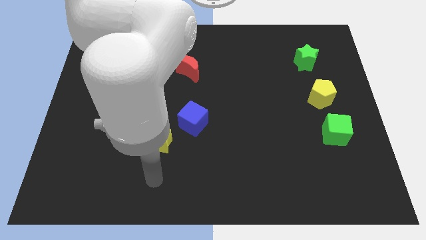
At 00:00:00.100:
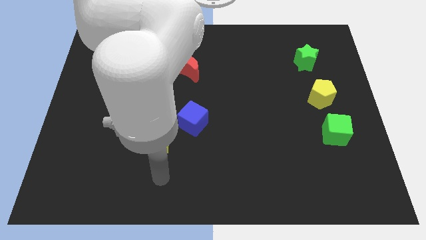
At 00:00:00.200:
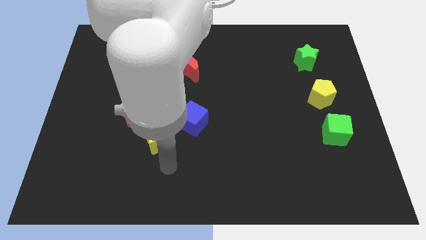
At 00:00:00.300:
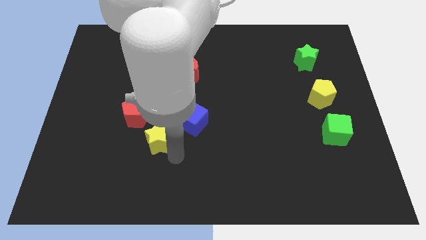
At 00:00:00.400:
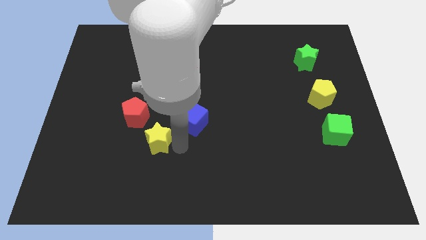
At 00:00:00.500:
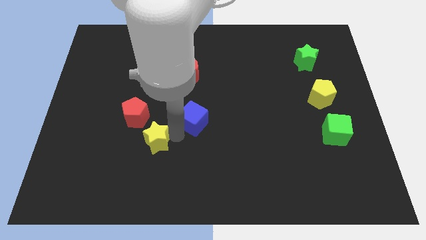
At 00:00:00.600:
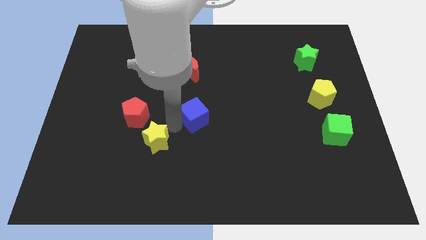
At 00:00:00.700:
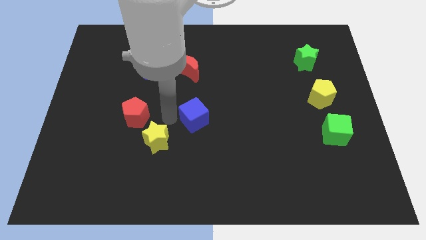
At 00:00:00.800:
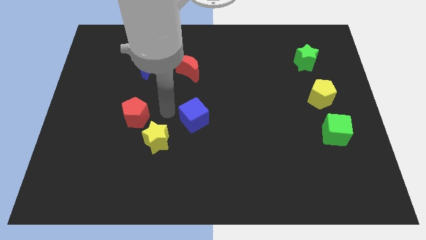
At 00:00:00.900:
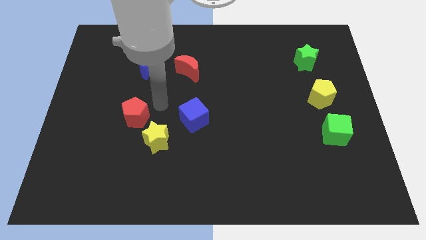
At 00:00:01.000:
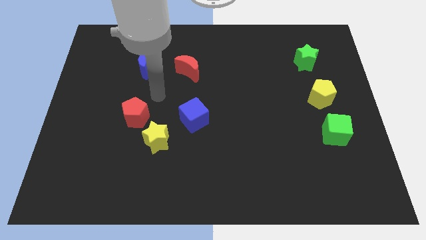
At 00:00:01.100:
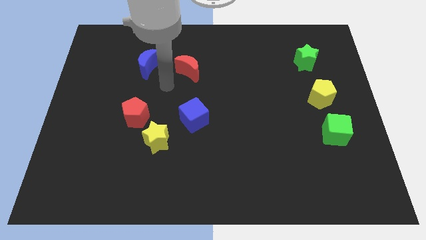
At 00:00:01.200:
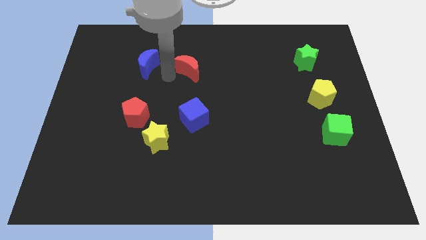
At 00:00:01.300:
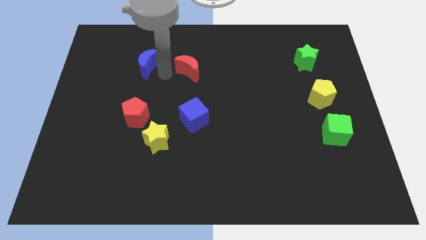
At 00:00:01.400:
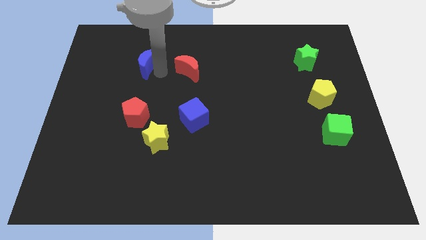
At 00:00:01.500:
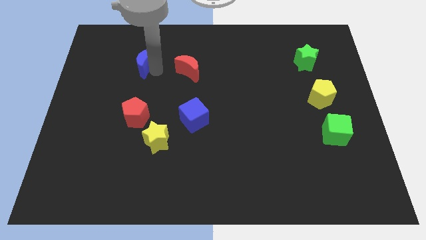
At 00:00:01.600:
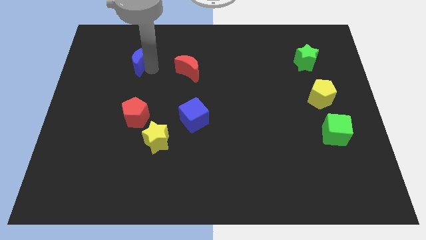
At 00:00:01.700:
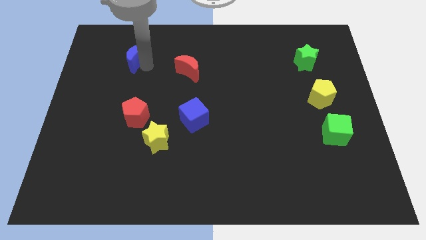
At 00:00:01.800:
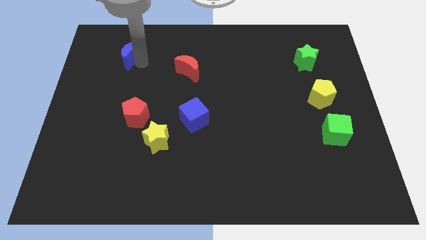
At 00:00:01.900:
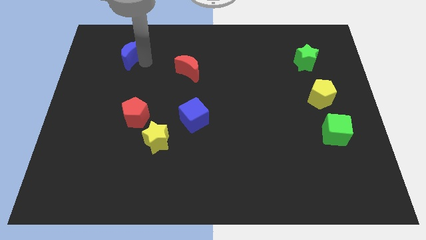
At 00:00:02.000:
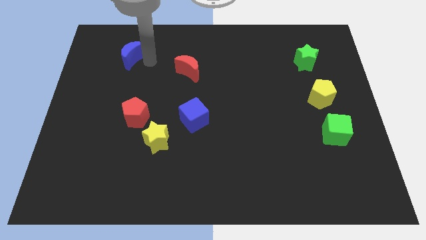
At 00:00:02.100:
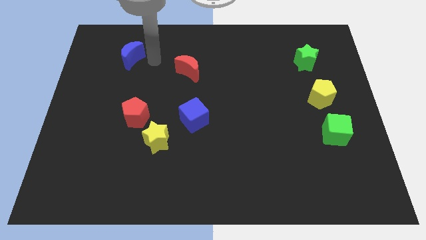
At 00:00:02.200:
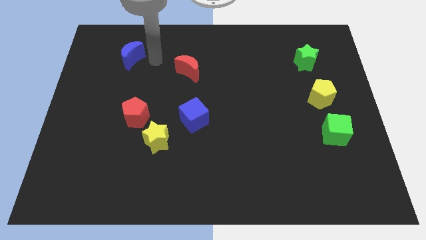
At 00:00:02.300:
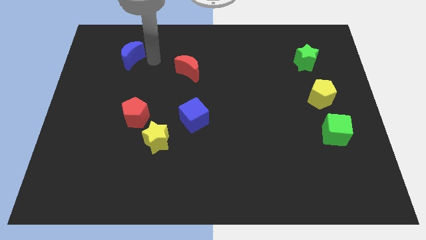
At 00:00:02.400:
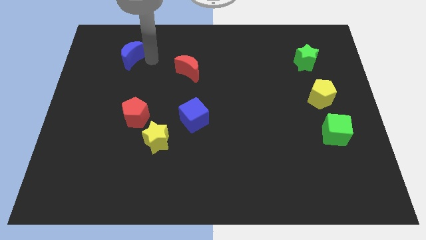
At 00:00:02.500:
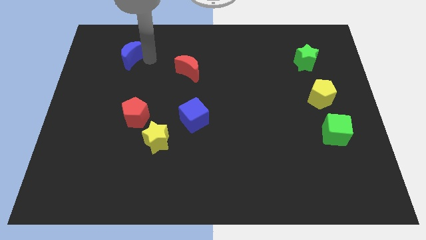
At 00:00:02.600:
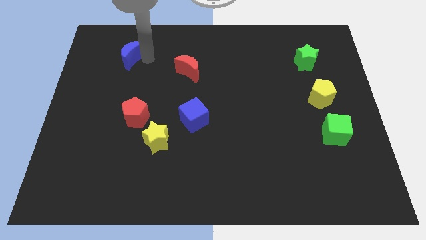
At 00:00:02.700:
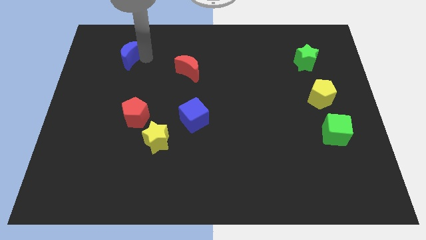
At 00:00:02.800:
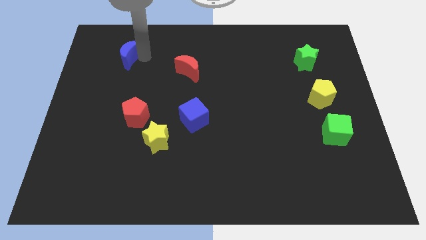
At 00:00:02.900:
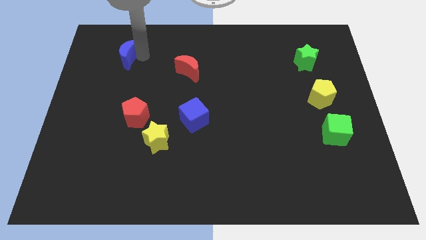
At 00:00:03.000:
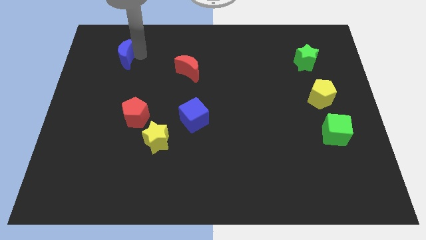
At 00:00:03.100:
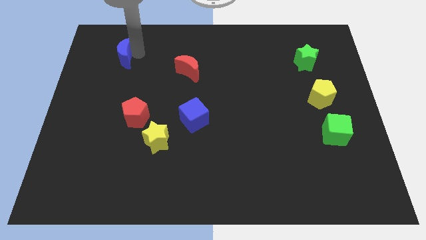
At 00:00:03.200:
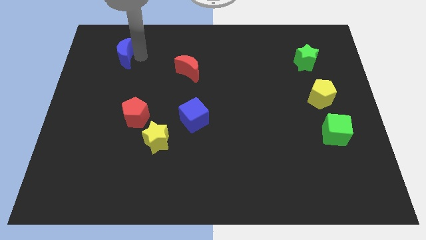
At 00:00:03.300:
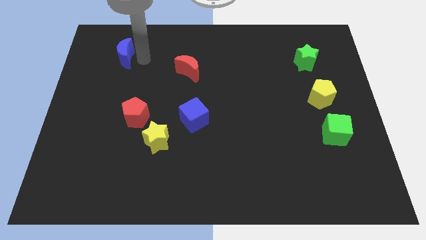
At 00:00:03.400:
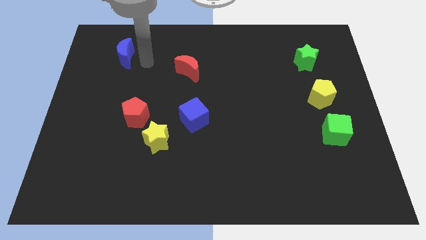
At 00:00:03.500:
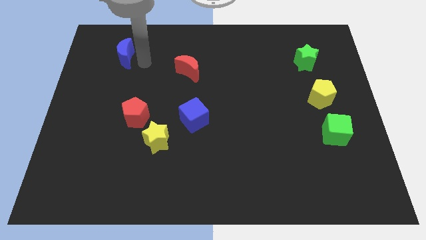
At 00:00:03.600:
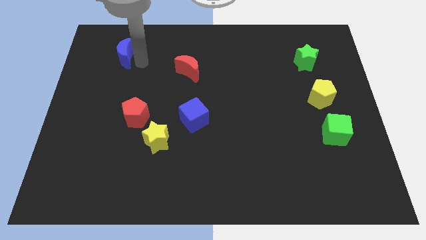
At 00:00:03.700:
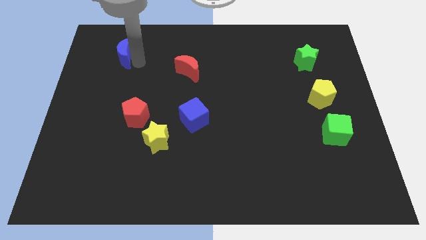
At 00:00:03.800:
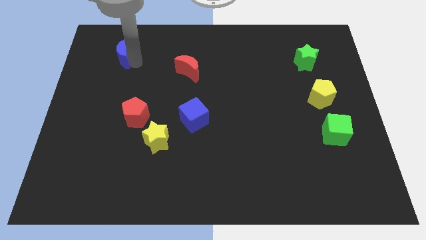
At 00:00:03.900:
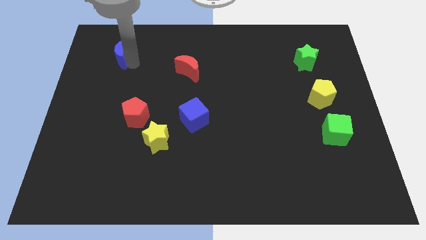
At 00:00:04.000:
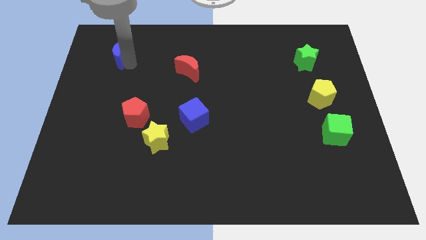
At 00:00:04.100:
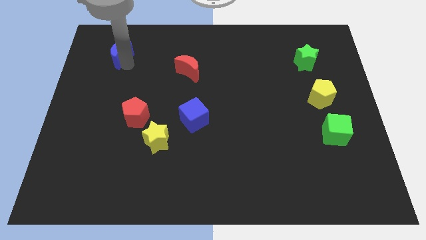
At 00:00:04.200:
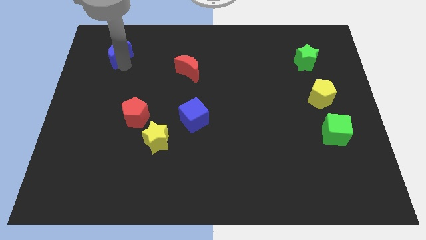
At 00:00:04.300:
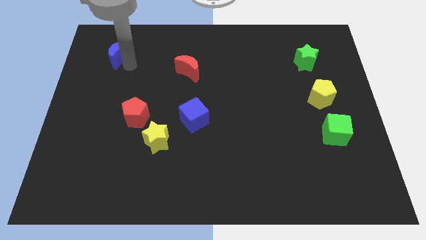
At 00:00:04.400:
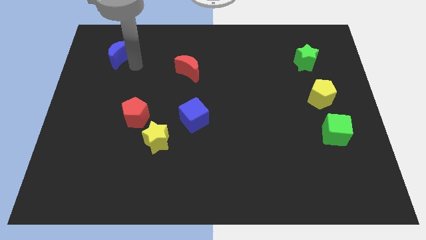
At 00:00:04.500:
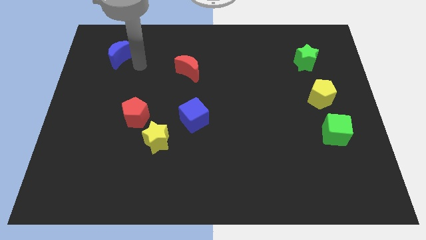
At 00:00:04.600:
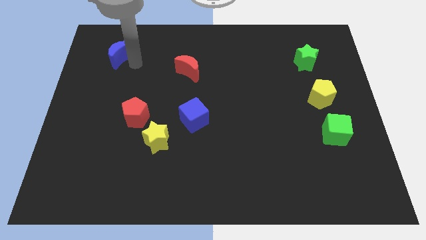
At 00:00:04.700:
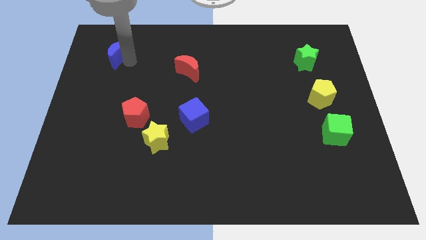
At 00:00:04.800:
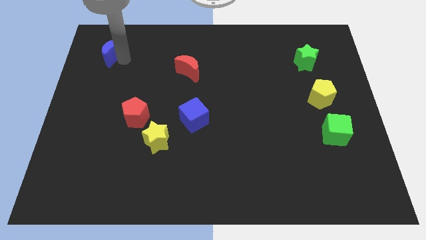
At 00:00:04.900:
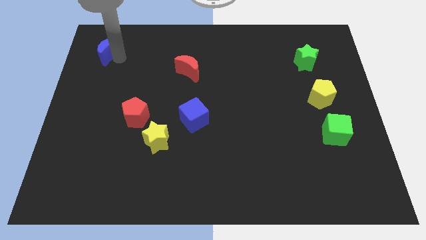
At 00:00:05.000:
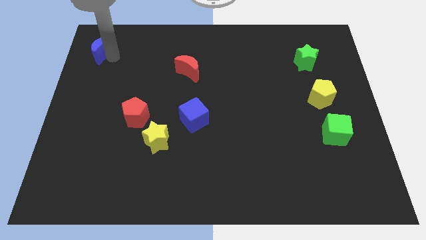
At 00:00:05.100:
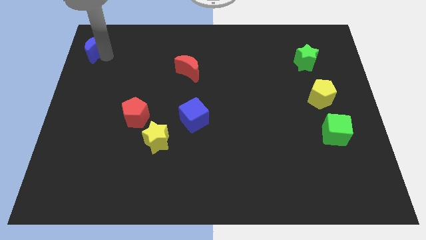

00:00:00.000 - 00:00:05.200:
put the blue moon to the upper left corner

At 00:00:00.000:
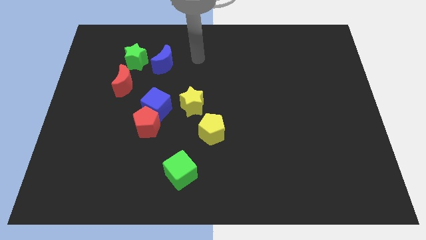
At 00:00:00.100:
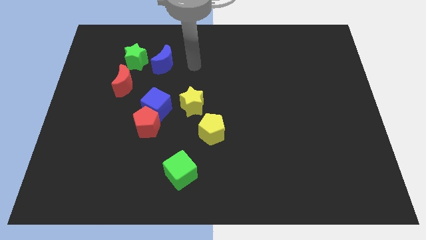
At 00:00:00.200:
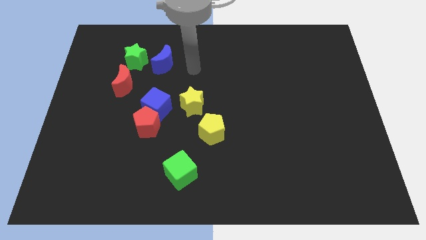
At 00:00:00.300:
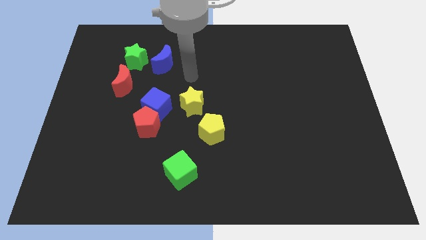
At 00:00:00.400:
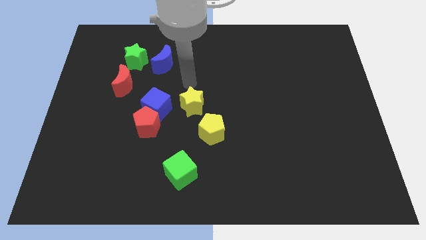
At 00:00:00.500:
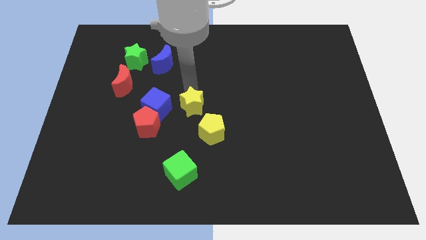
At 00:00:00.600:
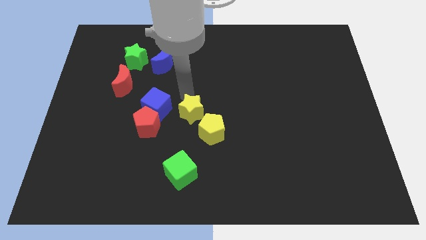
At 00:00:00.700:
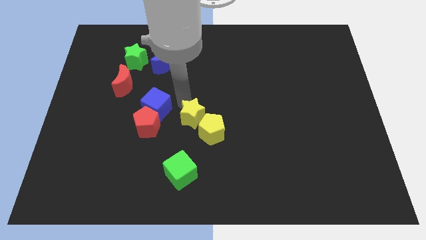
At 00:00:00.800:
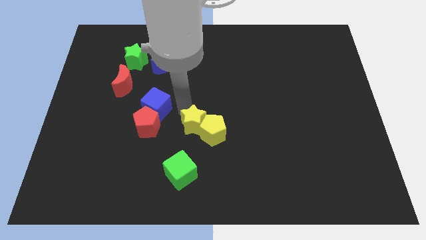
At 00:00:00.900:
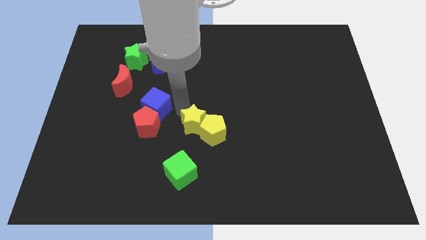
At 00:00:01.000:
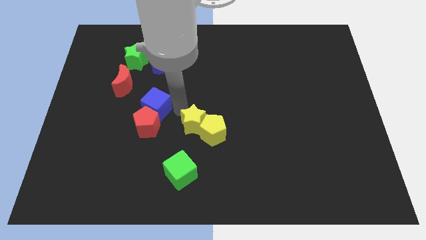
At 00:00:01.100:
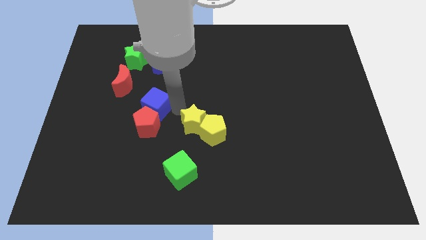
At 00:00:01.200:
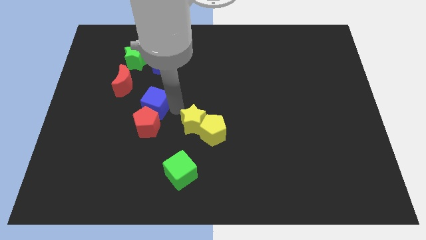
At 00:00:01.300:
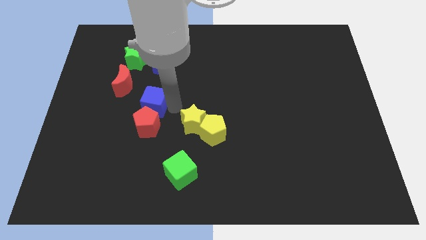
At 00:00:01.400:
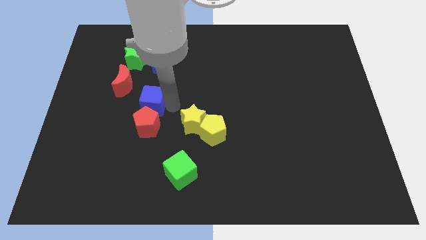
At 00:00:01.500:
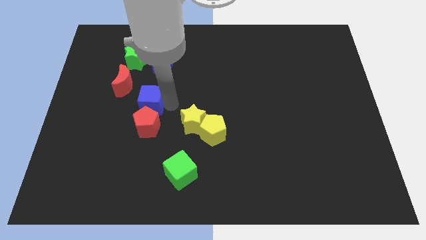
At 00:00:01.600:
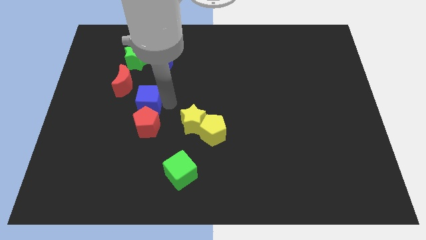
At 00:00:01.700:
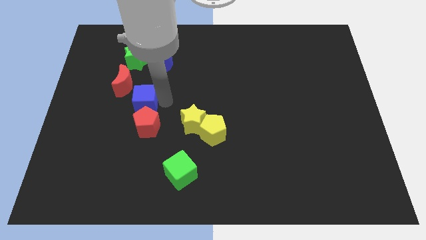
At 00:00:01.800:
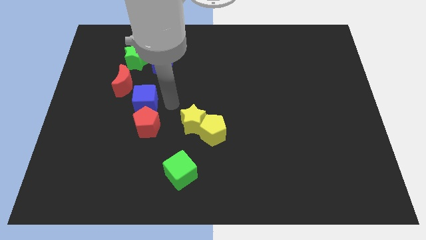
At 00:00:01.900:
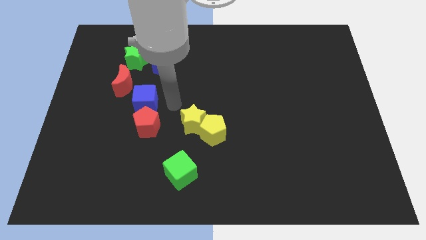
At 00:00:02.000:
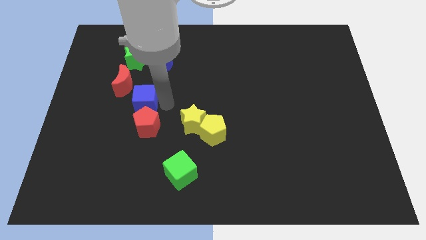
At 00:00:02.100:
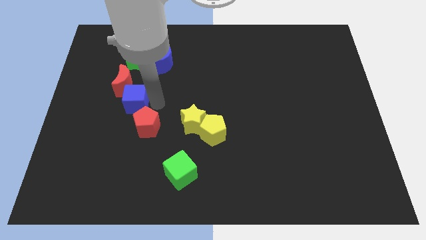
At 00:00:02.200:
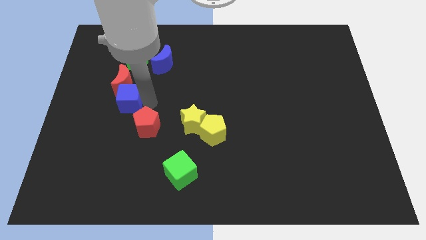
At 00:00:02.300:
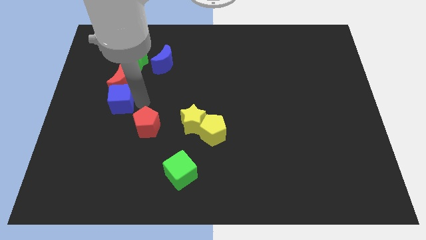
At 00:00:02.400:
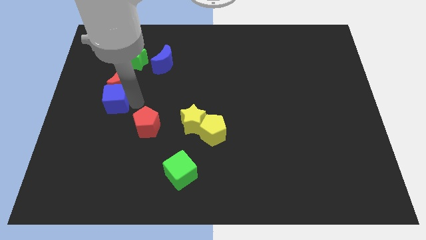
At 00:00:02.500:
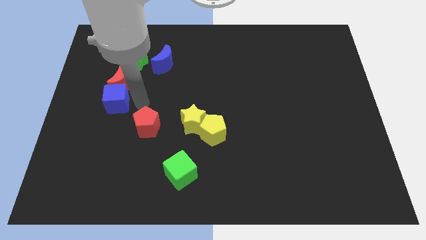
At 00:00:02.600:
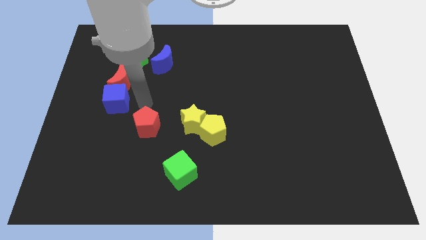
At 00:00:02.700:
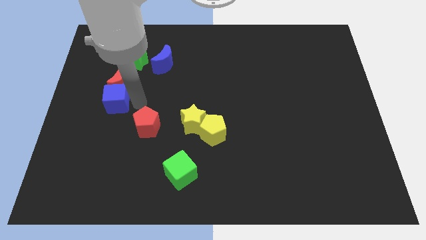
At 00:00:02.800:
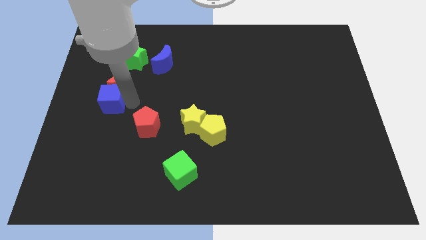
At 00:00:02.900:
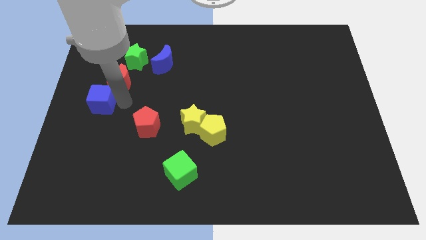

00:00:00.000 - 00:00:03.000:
push the blue cube to the left side

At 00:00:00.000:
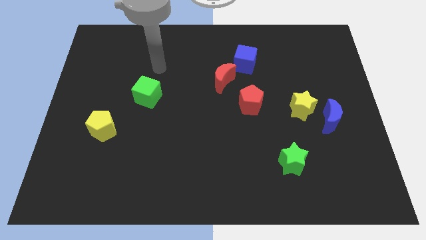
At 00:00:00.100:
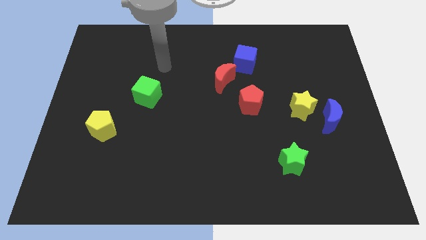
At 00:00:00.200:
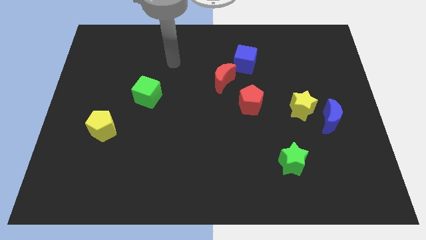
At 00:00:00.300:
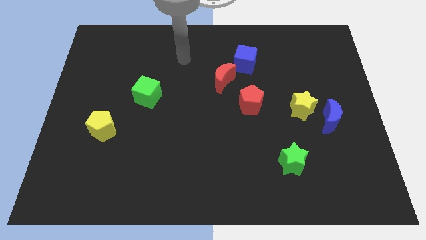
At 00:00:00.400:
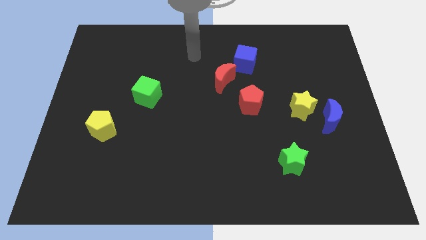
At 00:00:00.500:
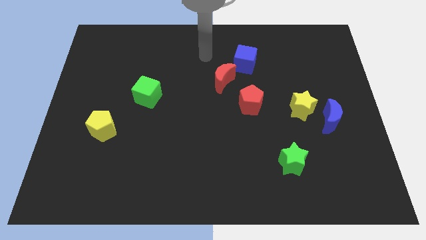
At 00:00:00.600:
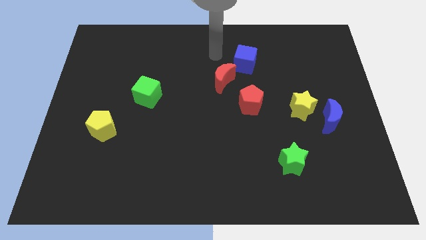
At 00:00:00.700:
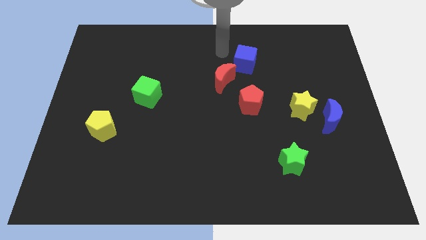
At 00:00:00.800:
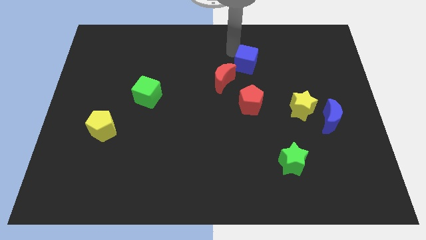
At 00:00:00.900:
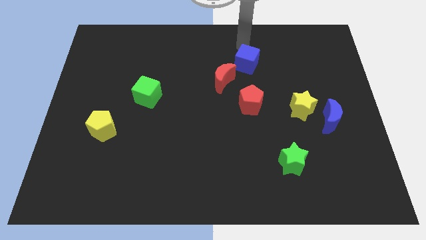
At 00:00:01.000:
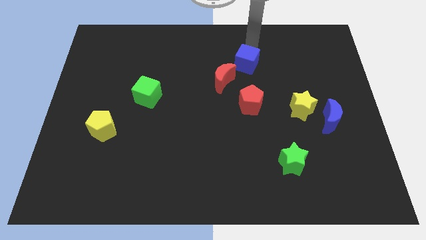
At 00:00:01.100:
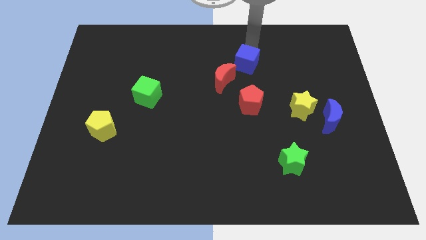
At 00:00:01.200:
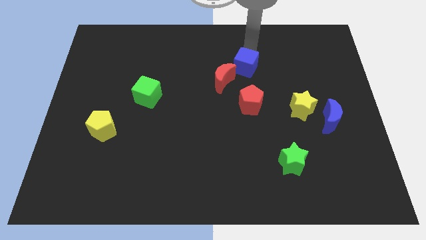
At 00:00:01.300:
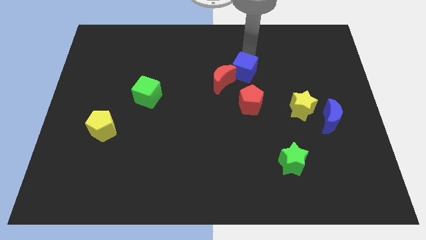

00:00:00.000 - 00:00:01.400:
move the blue cube to the middle of the board
